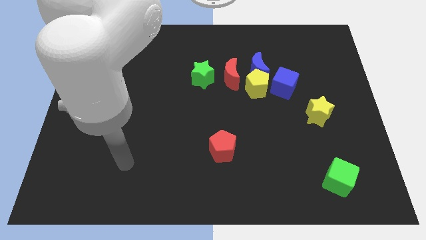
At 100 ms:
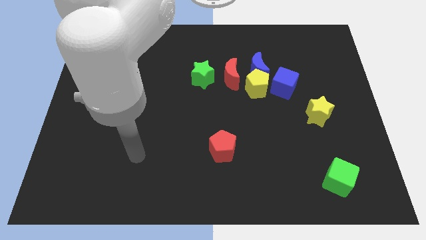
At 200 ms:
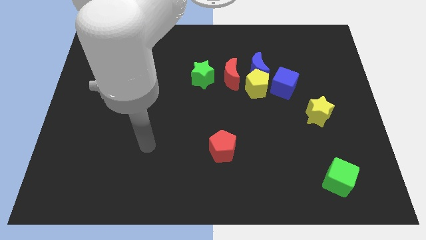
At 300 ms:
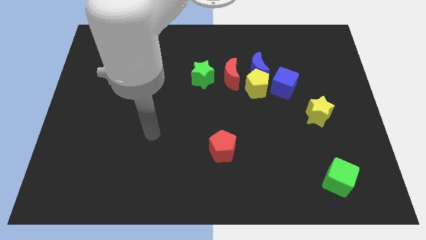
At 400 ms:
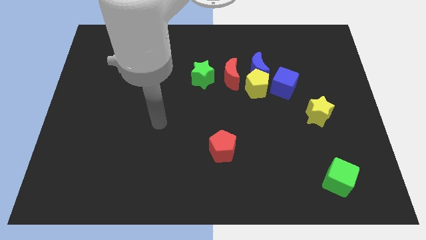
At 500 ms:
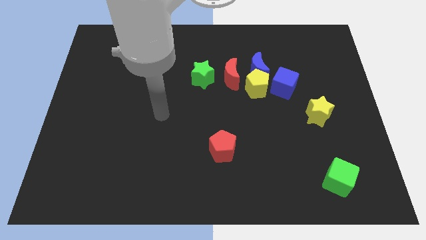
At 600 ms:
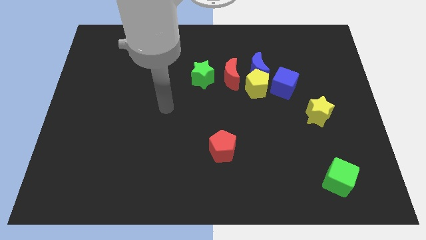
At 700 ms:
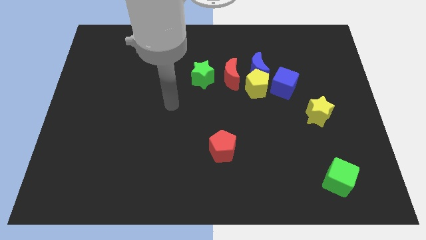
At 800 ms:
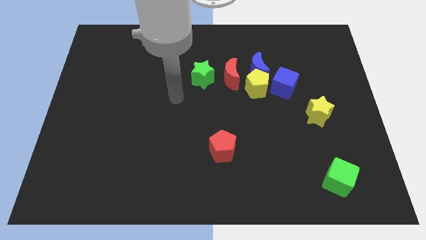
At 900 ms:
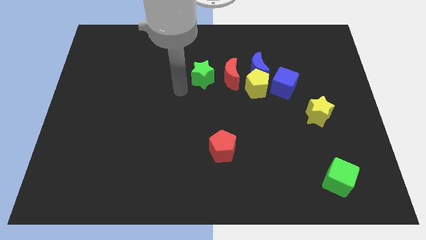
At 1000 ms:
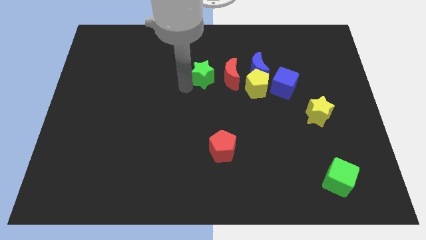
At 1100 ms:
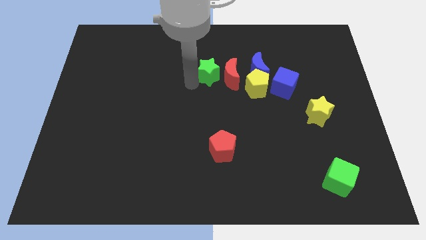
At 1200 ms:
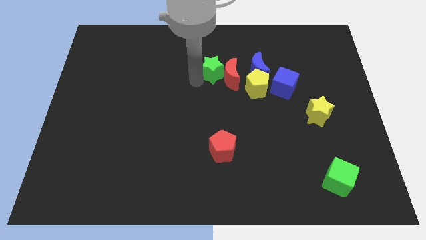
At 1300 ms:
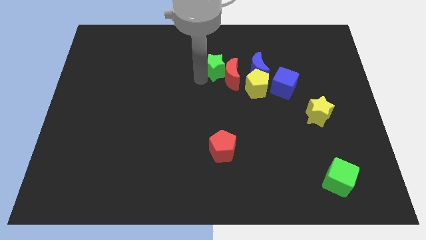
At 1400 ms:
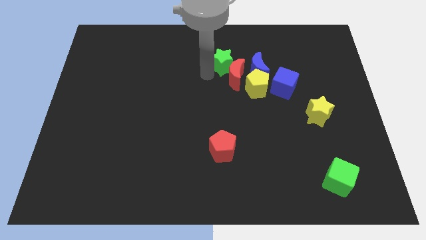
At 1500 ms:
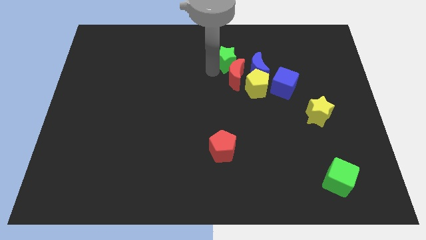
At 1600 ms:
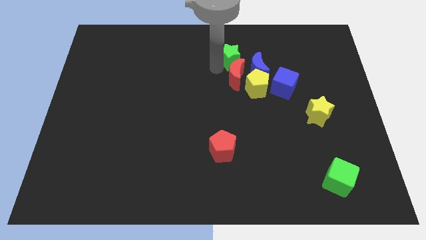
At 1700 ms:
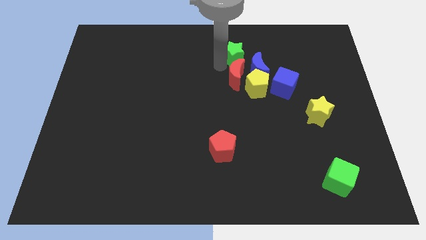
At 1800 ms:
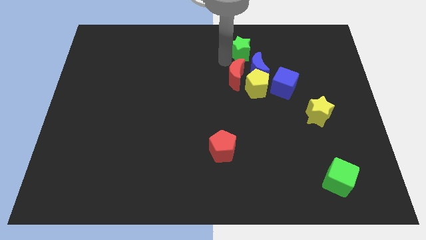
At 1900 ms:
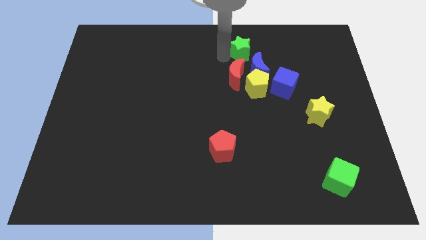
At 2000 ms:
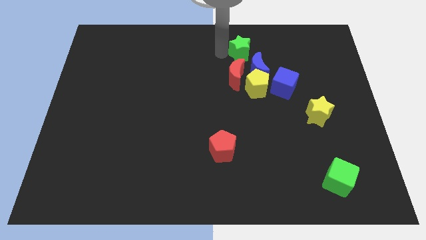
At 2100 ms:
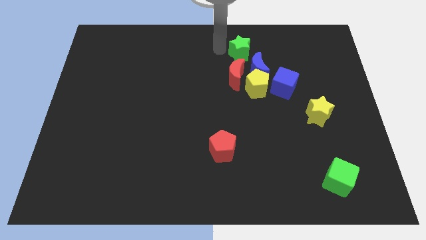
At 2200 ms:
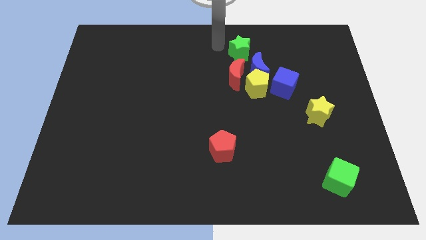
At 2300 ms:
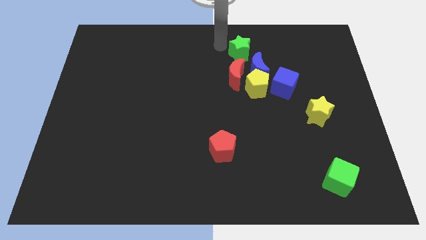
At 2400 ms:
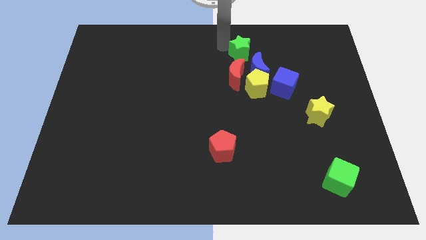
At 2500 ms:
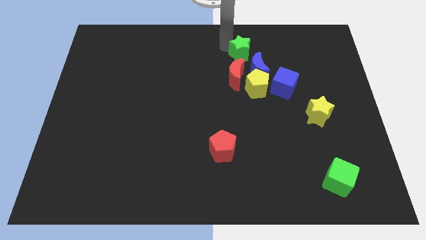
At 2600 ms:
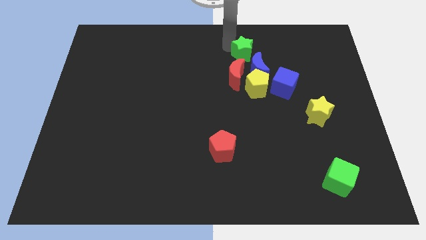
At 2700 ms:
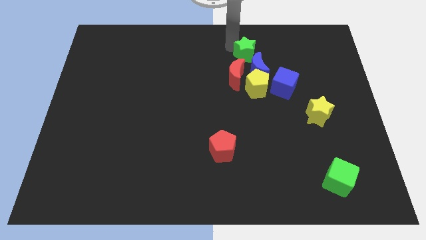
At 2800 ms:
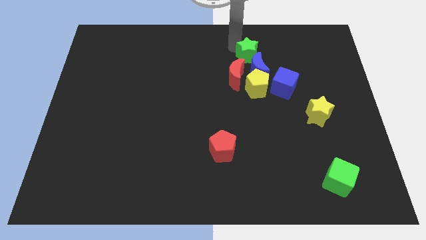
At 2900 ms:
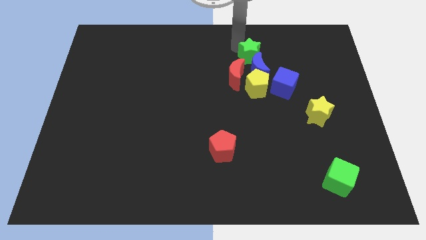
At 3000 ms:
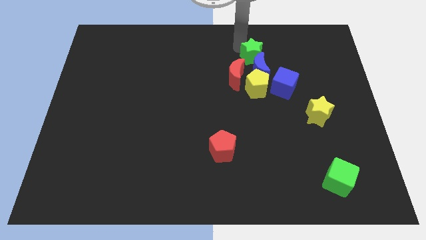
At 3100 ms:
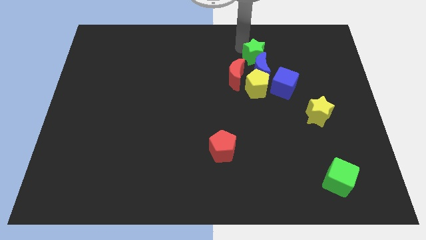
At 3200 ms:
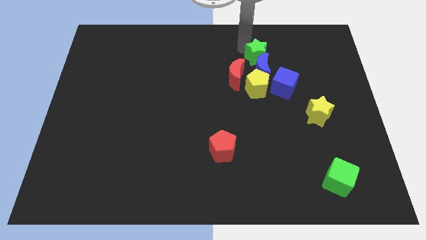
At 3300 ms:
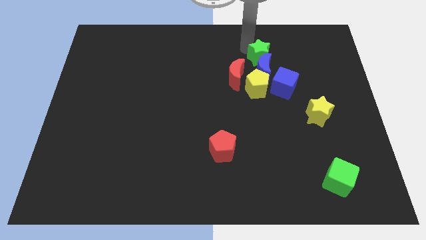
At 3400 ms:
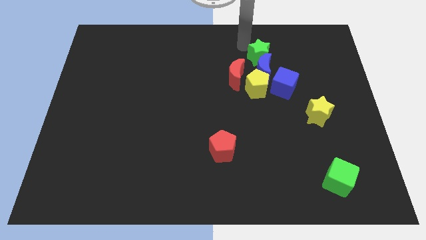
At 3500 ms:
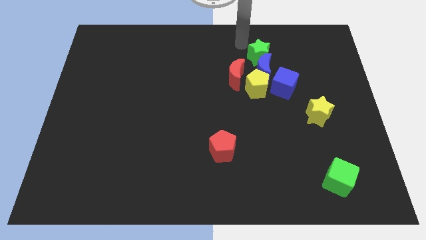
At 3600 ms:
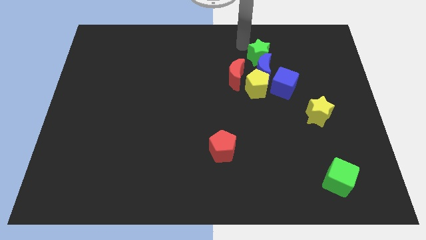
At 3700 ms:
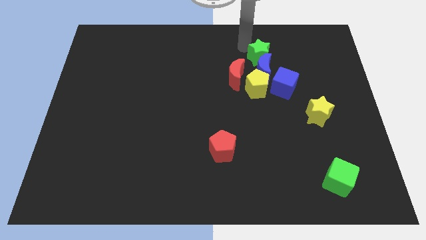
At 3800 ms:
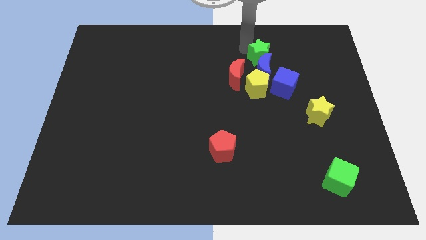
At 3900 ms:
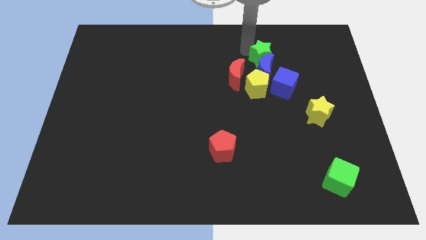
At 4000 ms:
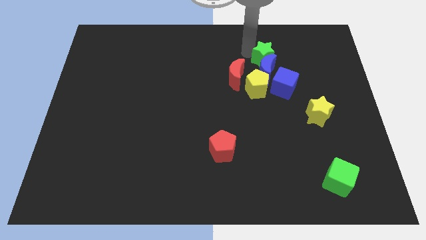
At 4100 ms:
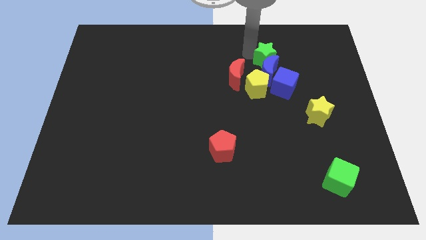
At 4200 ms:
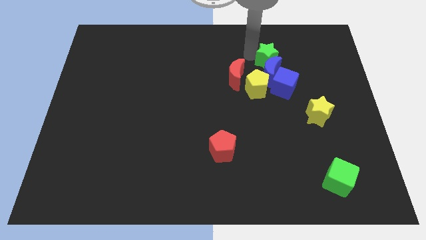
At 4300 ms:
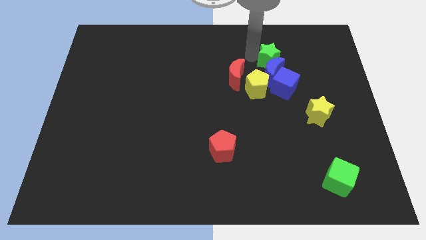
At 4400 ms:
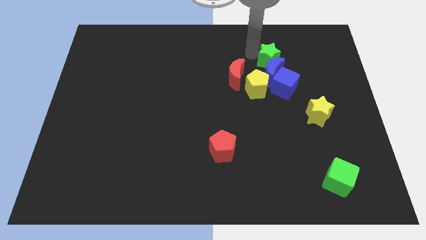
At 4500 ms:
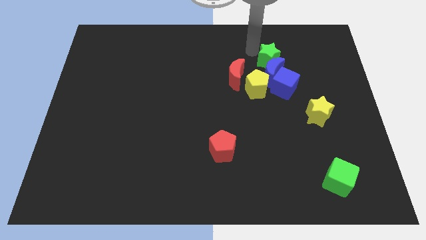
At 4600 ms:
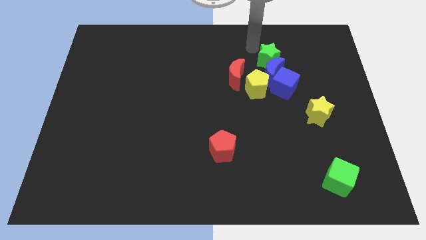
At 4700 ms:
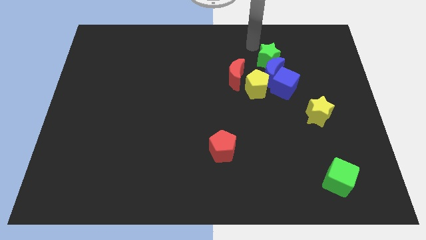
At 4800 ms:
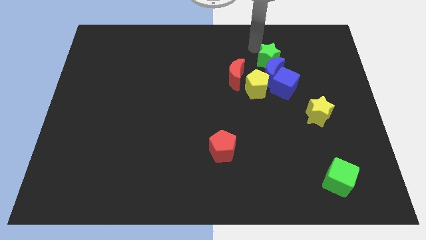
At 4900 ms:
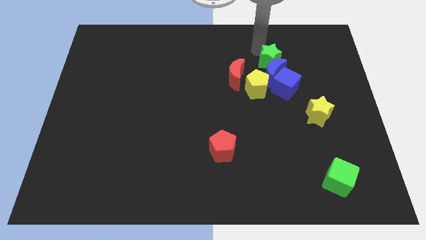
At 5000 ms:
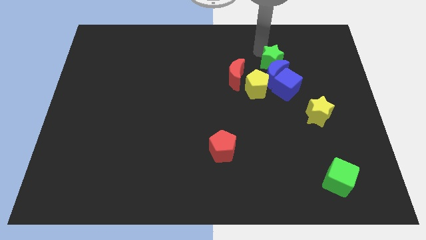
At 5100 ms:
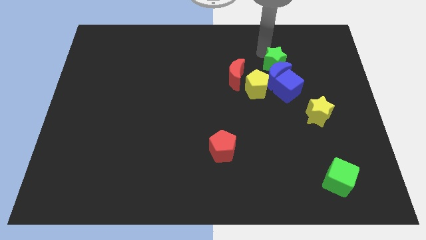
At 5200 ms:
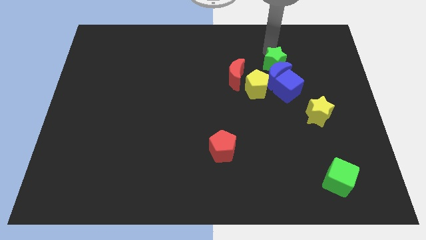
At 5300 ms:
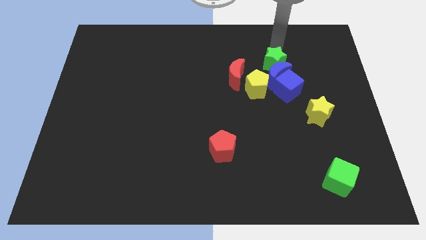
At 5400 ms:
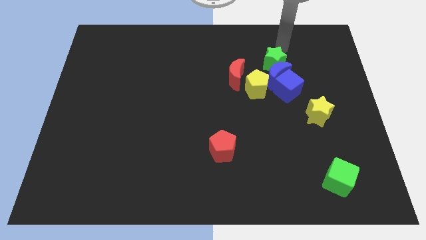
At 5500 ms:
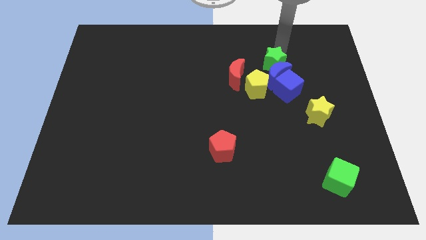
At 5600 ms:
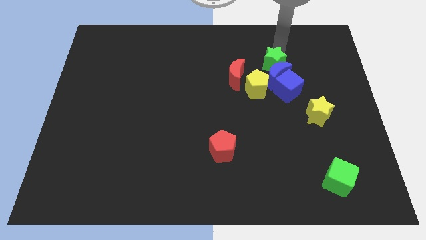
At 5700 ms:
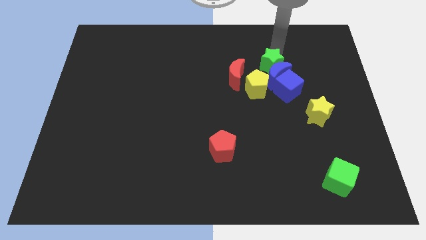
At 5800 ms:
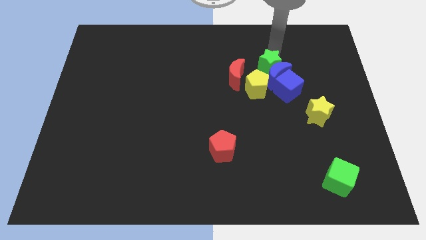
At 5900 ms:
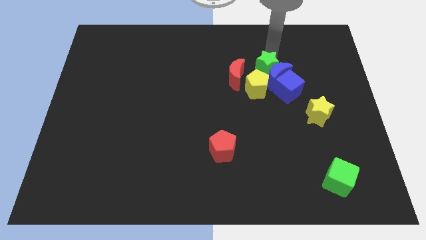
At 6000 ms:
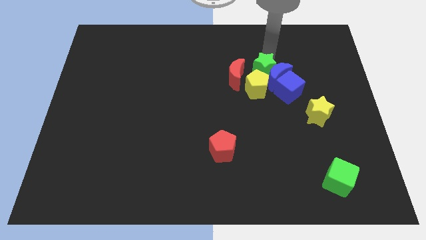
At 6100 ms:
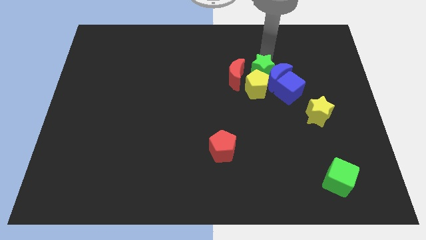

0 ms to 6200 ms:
slide the green star next to the yellow pentagon
